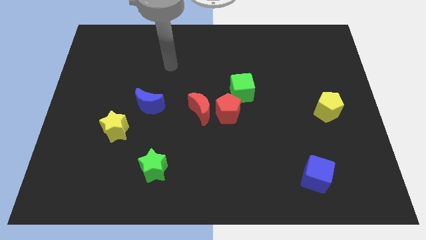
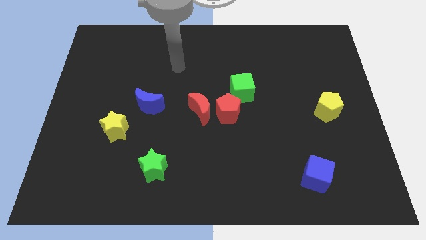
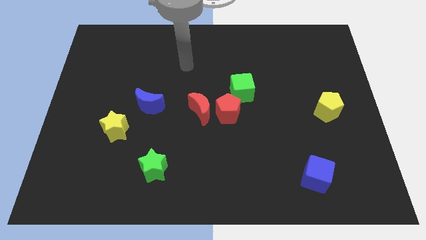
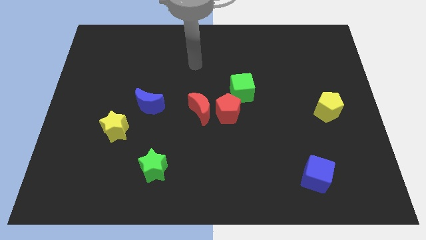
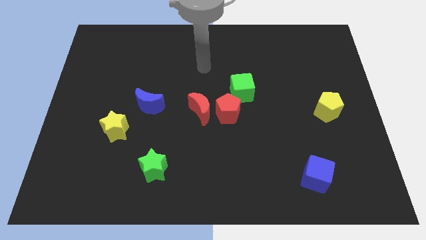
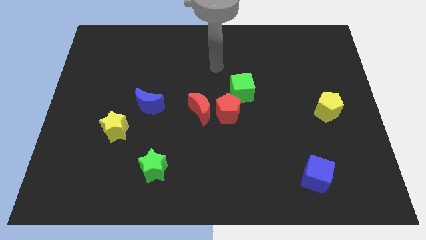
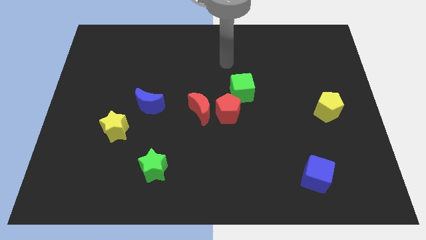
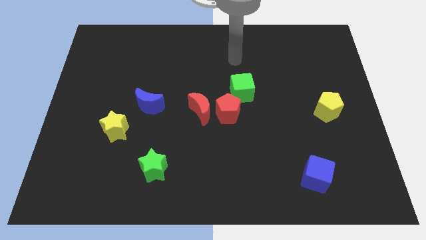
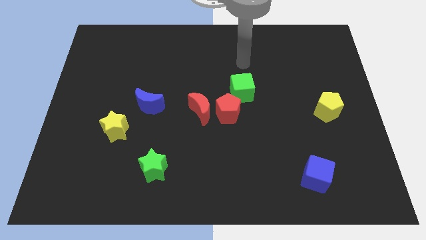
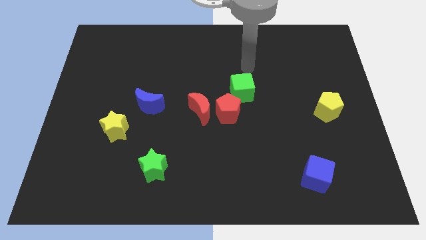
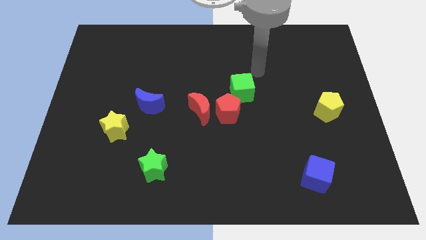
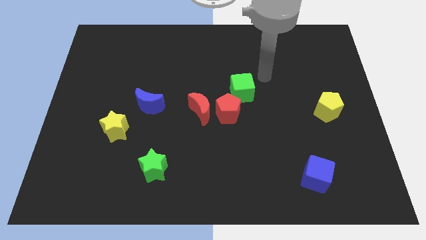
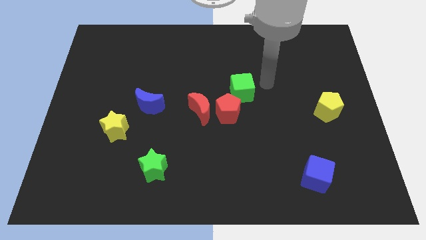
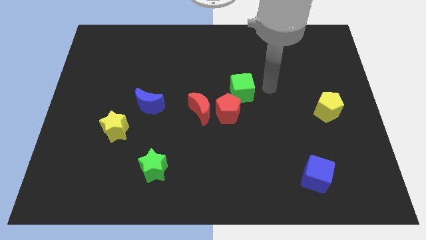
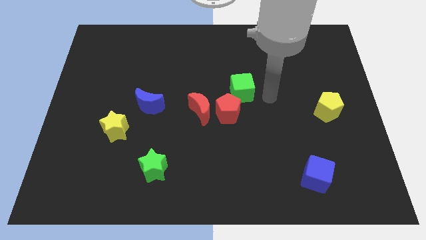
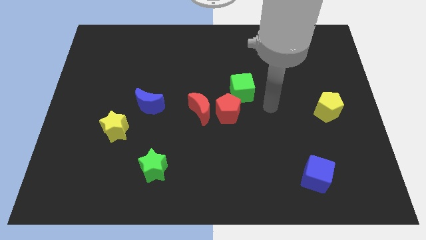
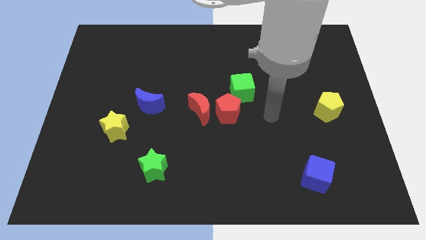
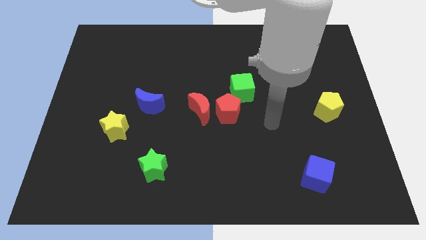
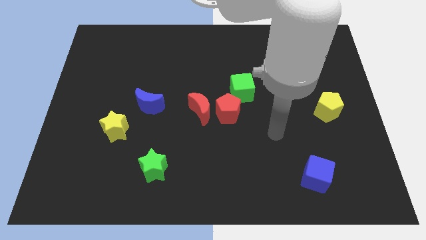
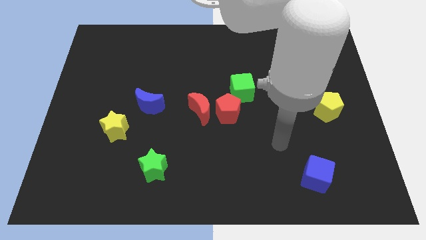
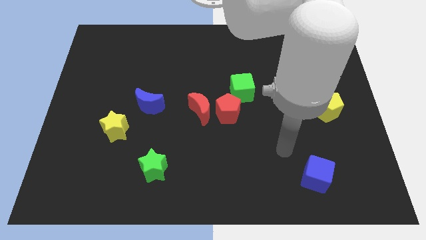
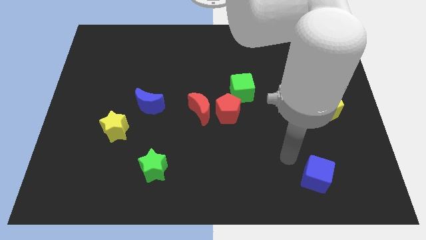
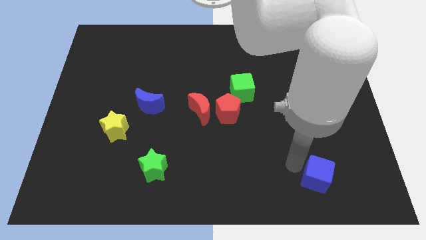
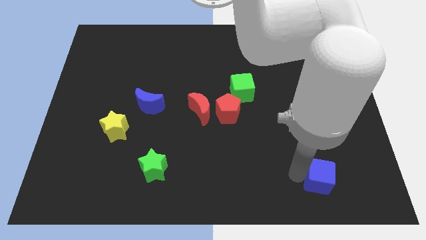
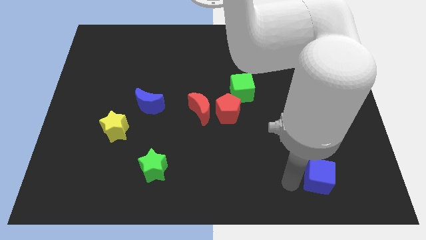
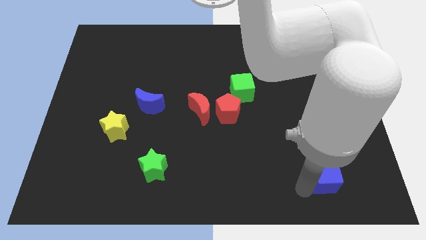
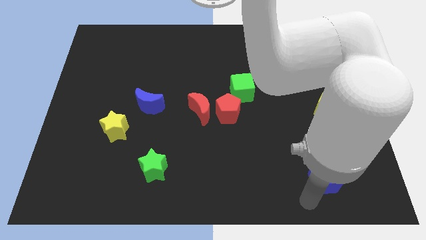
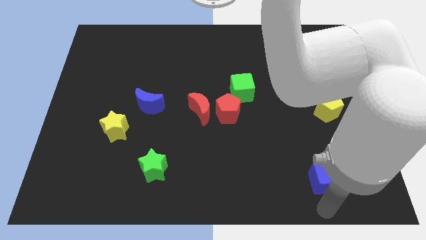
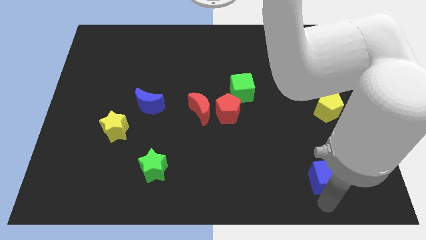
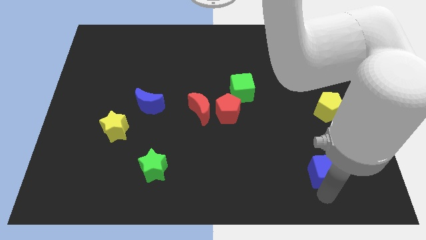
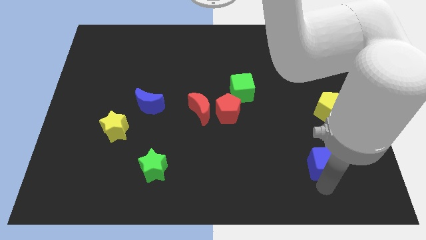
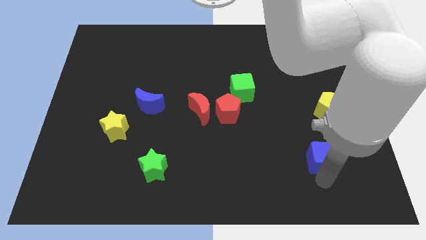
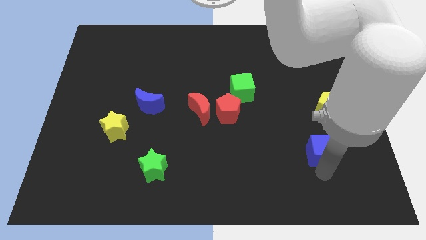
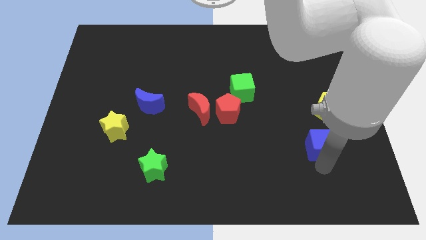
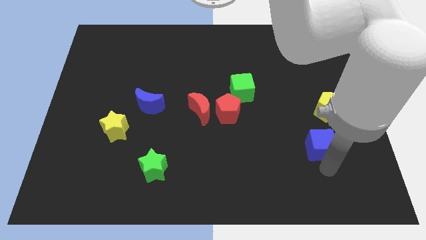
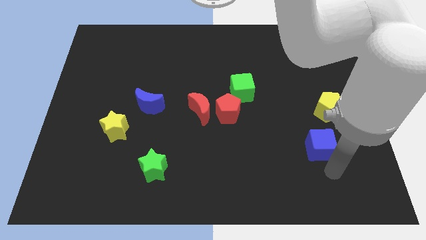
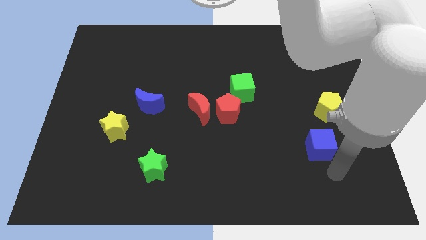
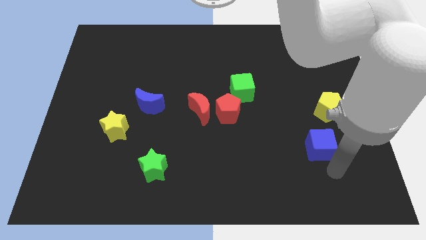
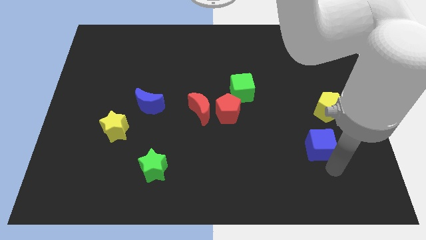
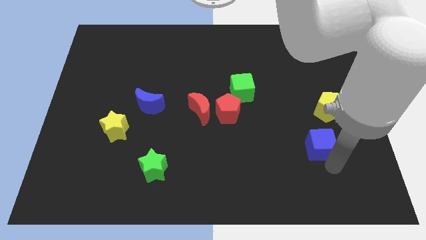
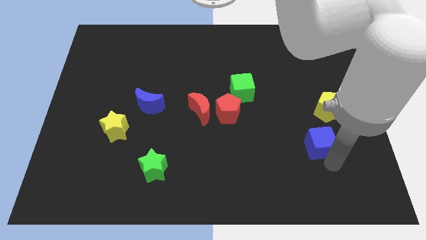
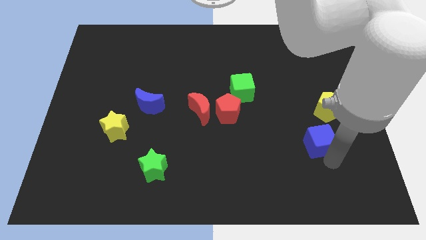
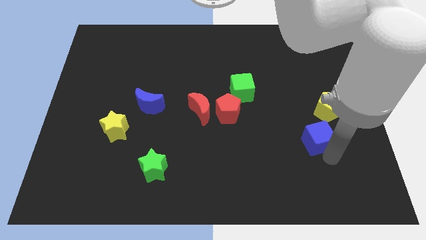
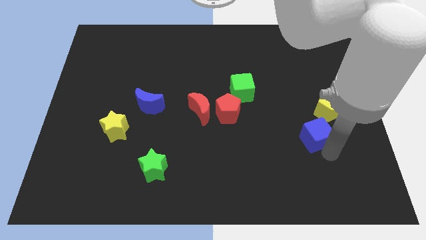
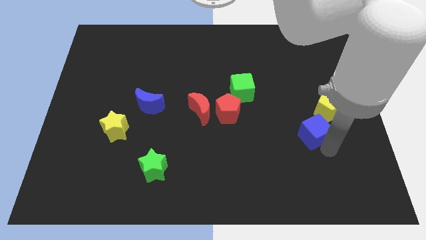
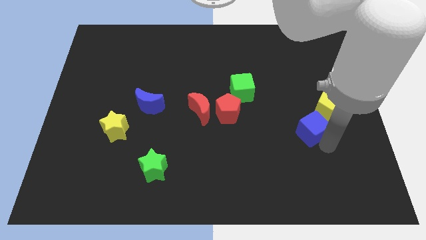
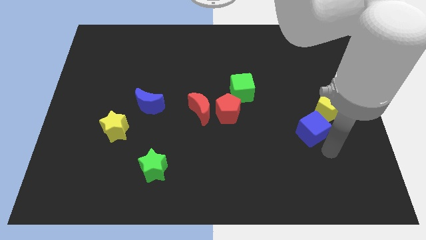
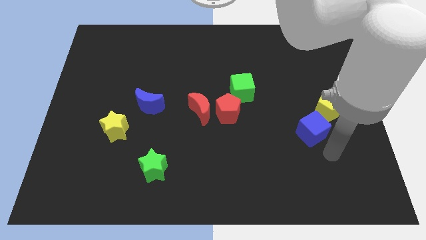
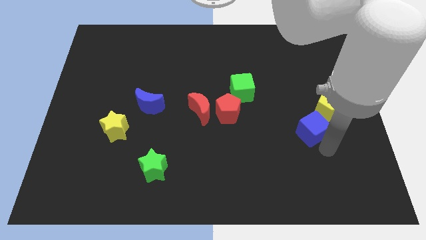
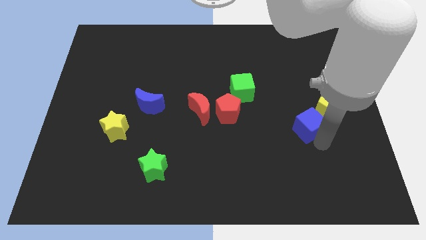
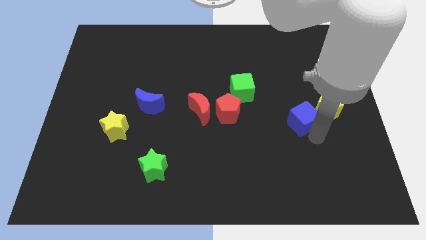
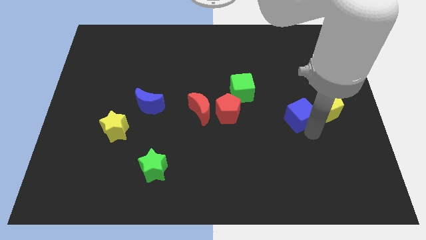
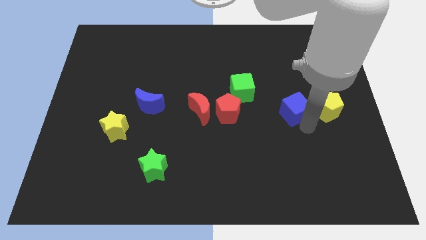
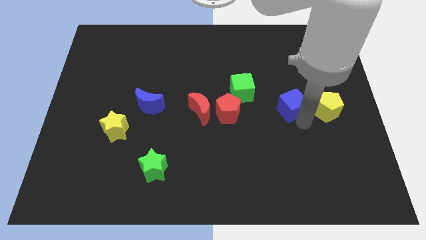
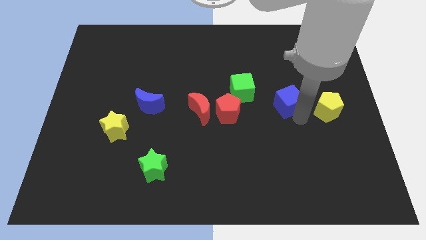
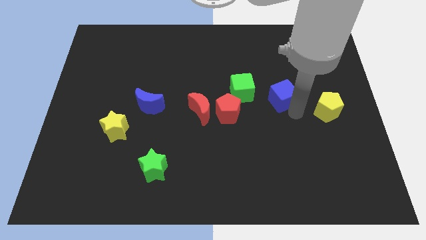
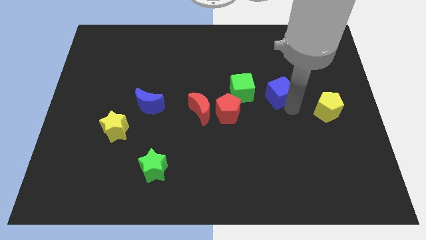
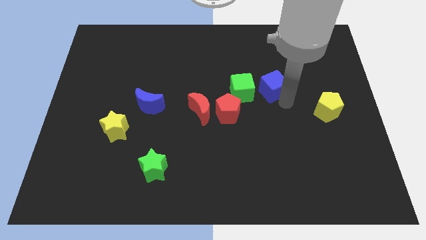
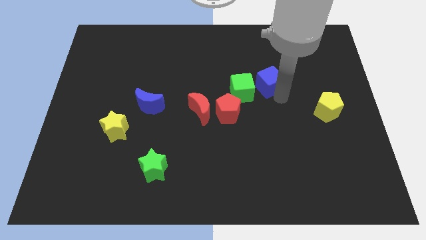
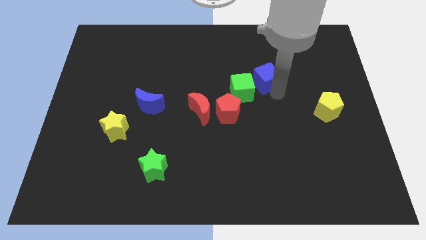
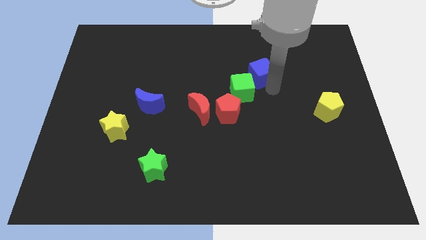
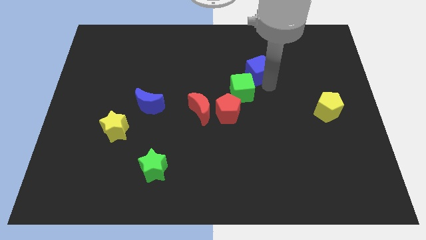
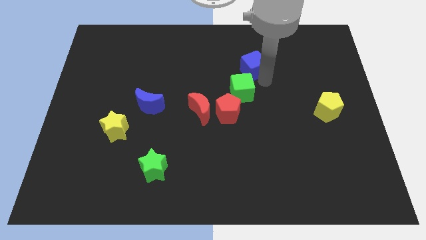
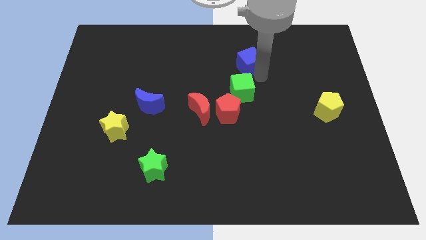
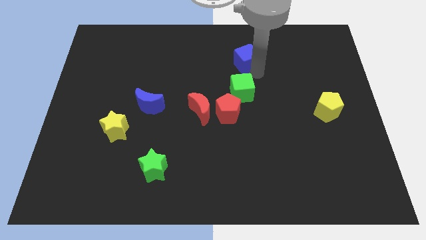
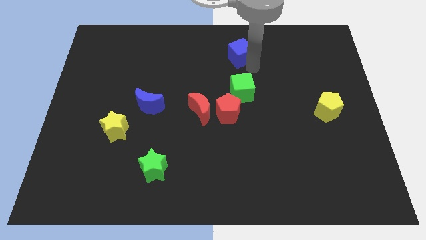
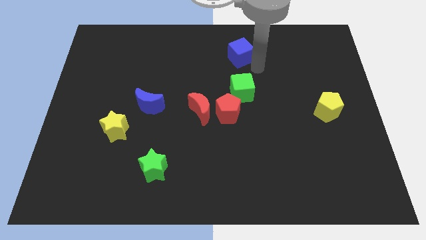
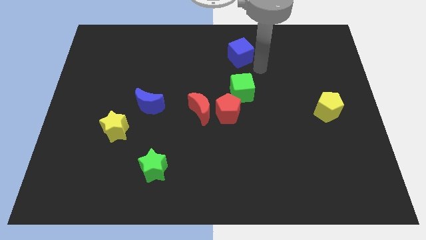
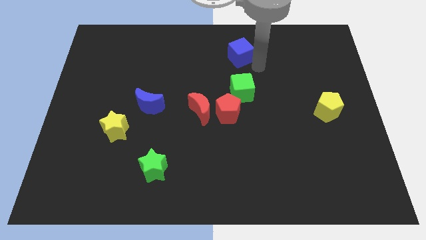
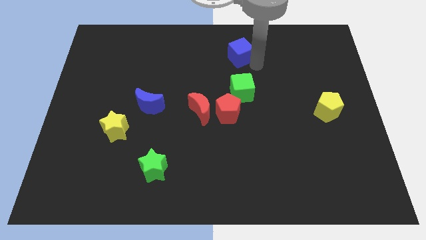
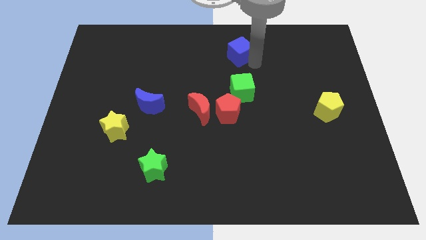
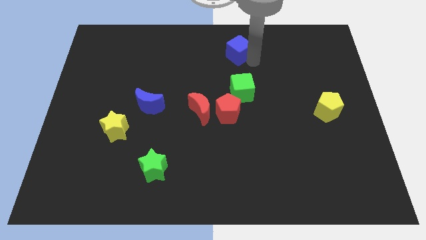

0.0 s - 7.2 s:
slide the blue cube to the towards your base
